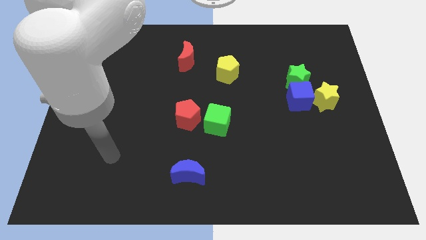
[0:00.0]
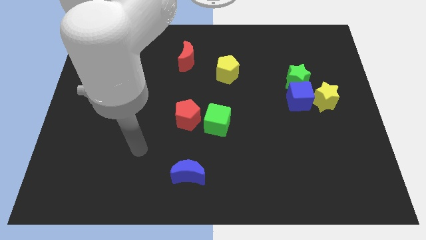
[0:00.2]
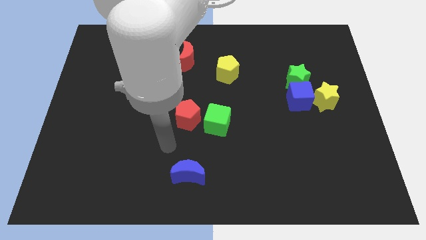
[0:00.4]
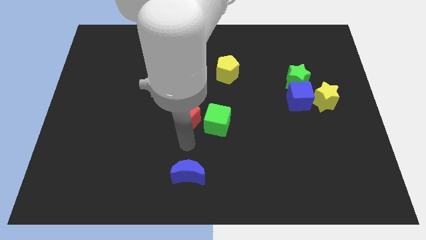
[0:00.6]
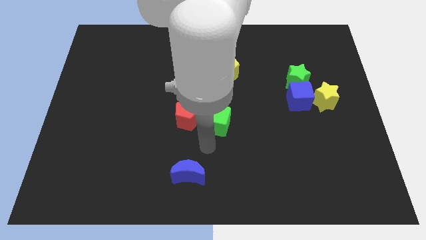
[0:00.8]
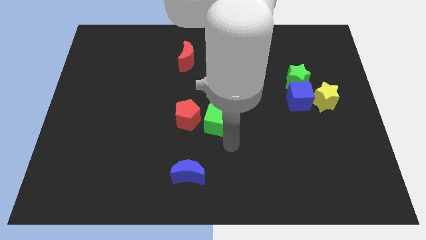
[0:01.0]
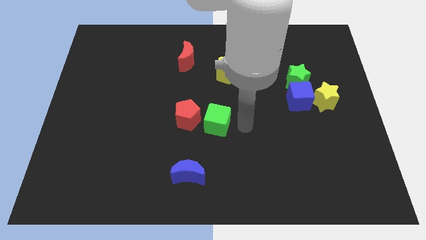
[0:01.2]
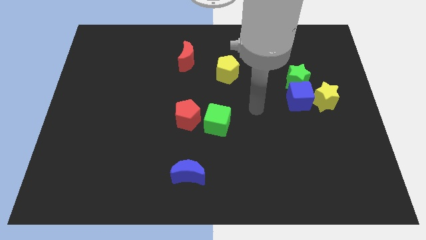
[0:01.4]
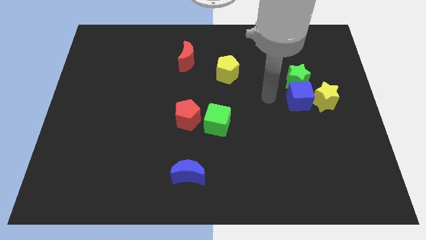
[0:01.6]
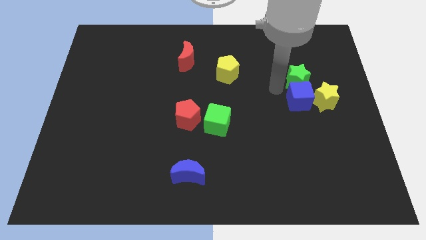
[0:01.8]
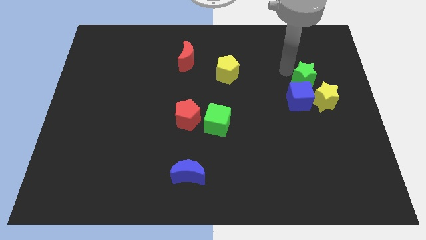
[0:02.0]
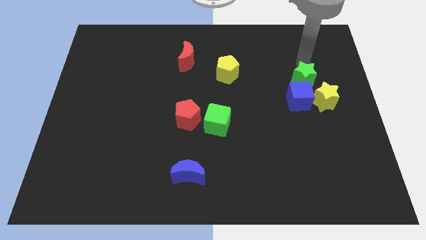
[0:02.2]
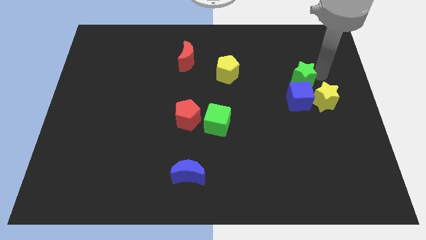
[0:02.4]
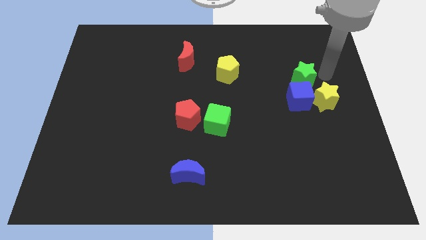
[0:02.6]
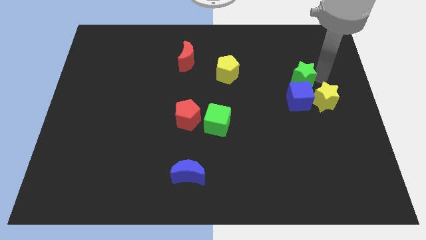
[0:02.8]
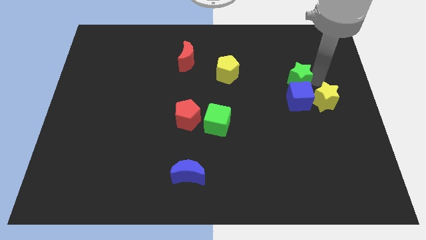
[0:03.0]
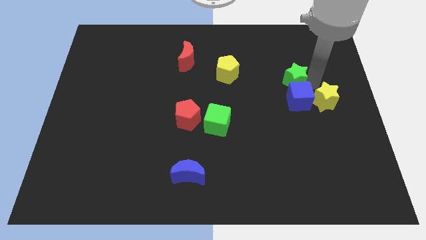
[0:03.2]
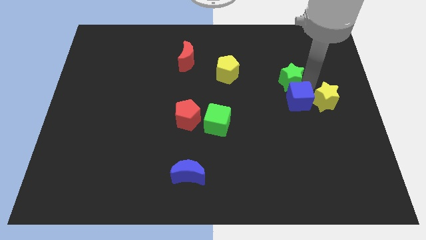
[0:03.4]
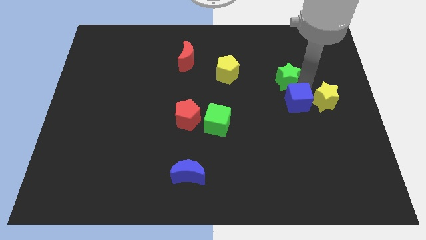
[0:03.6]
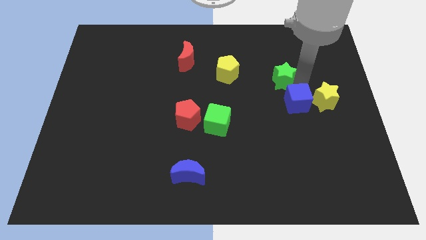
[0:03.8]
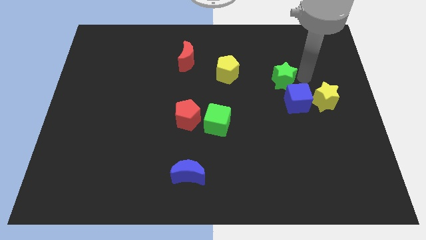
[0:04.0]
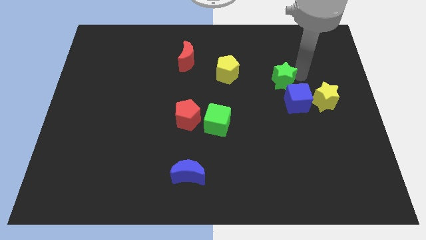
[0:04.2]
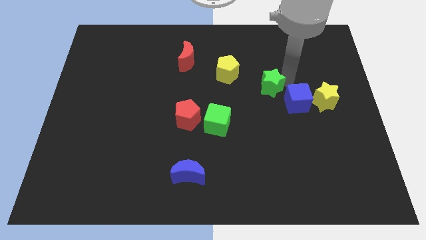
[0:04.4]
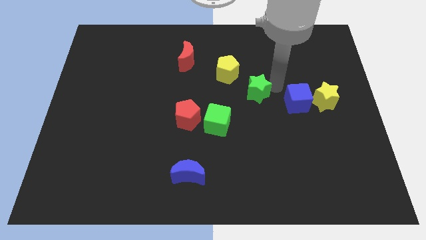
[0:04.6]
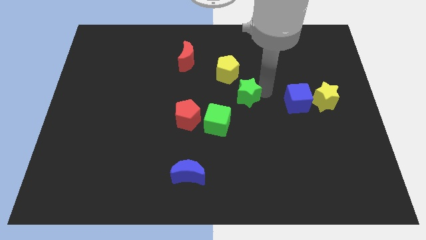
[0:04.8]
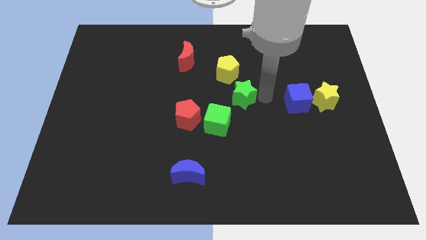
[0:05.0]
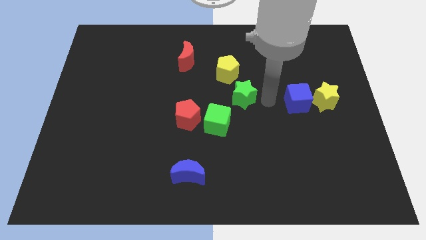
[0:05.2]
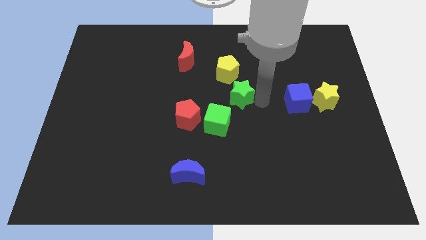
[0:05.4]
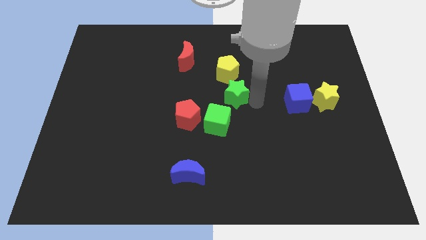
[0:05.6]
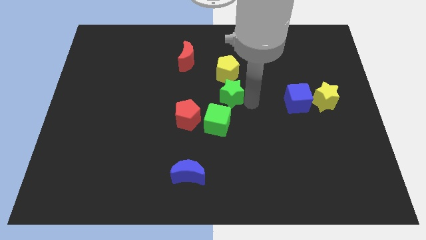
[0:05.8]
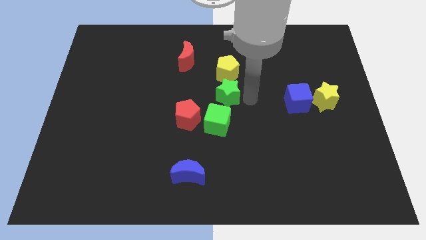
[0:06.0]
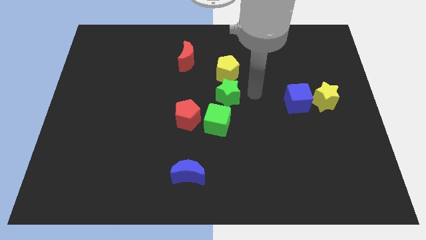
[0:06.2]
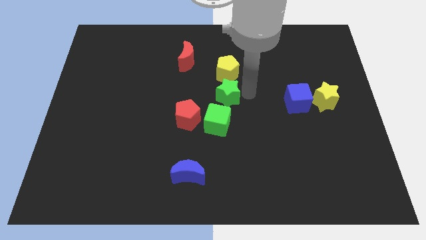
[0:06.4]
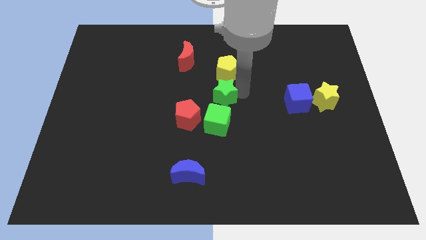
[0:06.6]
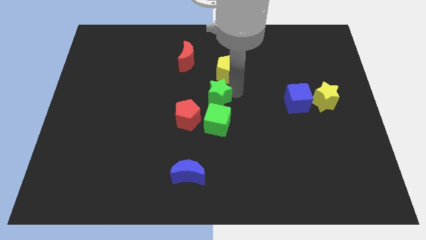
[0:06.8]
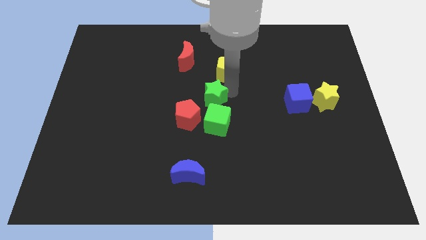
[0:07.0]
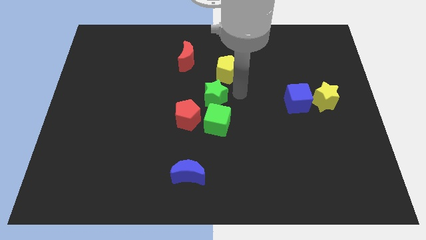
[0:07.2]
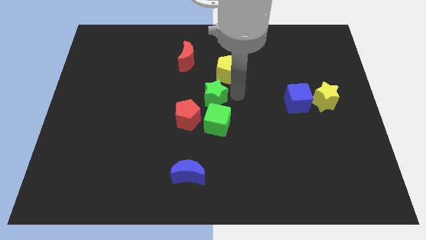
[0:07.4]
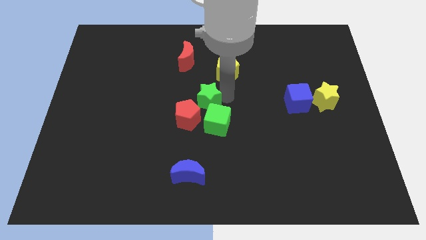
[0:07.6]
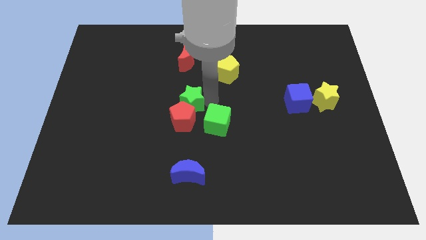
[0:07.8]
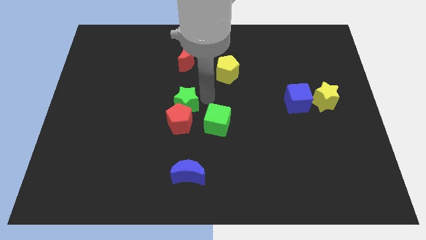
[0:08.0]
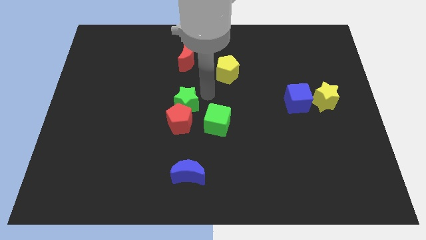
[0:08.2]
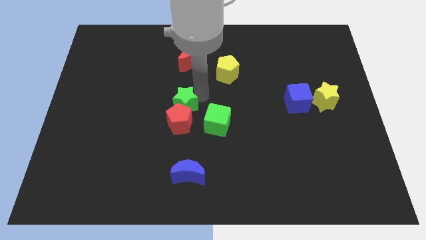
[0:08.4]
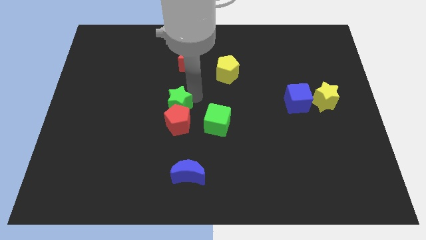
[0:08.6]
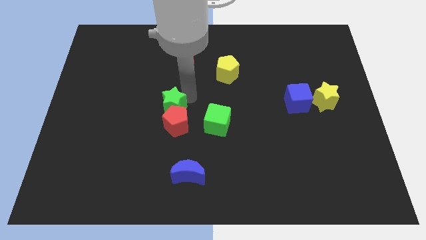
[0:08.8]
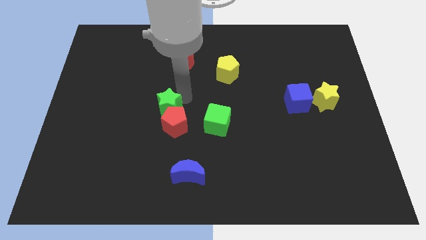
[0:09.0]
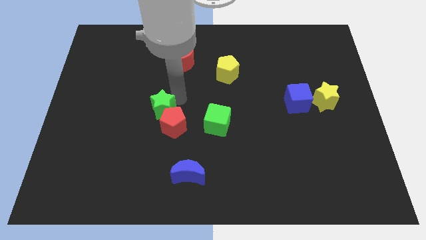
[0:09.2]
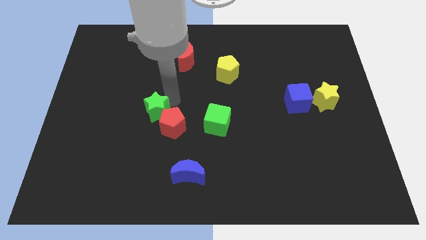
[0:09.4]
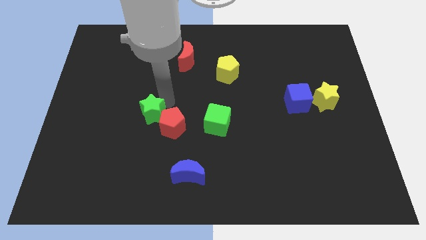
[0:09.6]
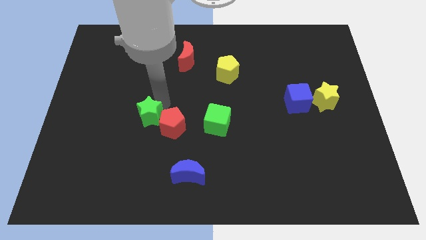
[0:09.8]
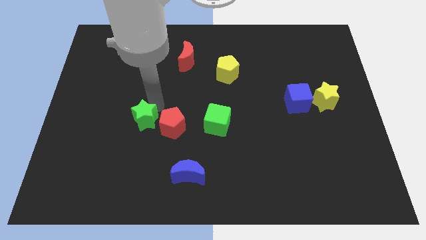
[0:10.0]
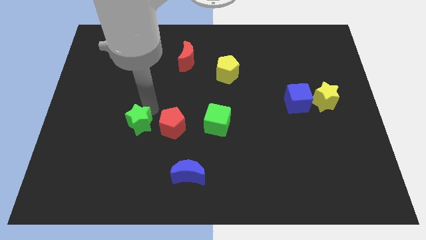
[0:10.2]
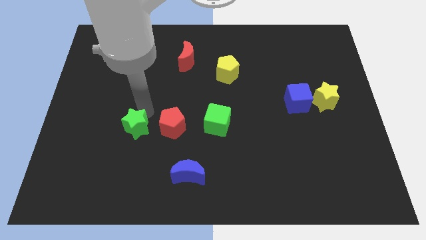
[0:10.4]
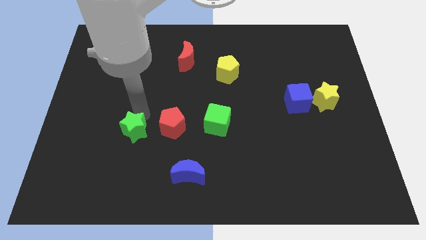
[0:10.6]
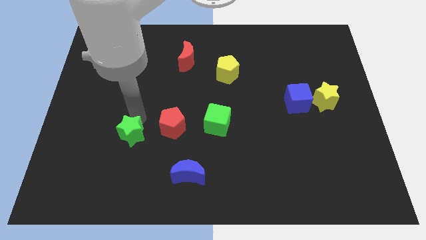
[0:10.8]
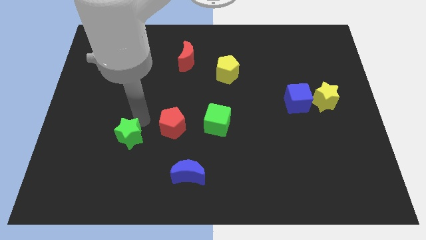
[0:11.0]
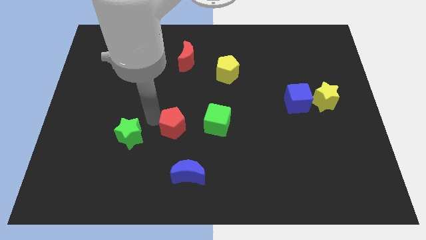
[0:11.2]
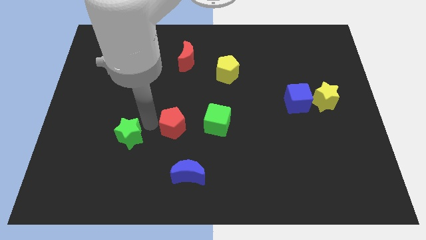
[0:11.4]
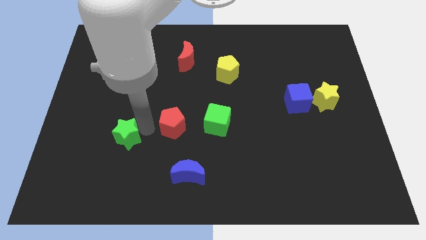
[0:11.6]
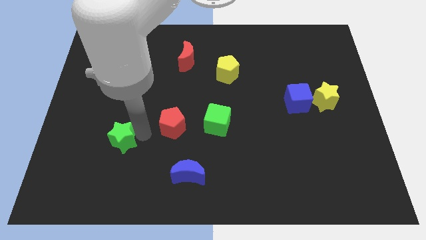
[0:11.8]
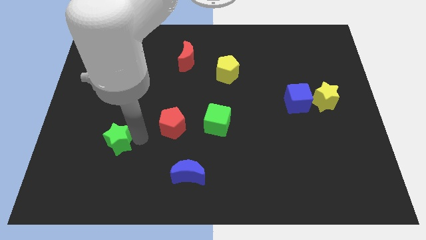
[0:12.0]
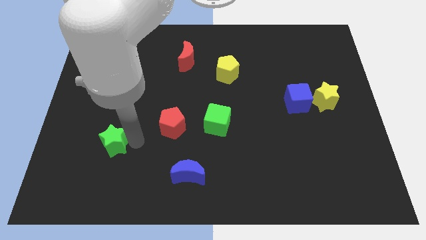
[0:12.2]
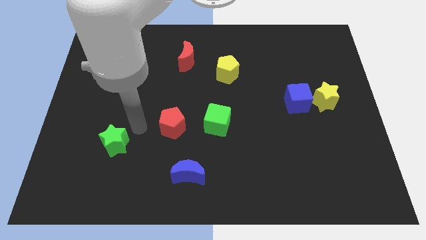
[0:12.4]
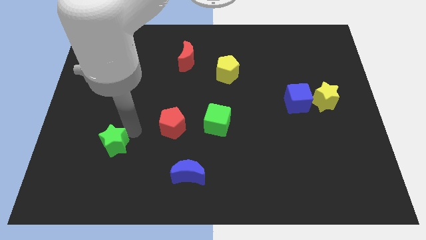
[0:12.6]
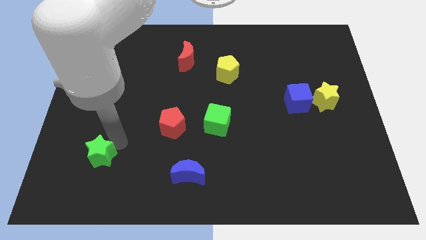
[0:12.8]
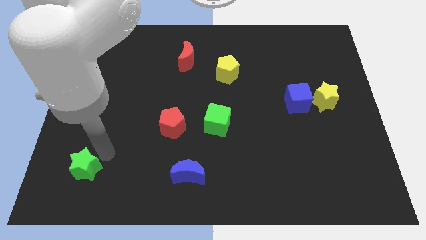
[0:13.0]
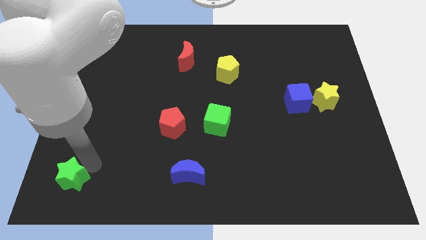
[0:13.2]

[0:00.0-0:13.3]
put the green star to the lower left corner
